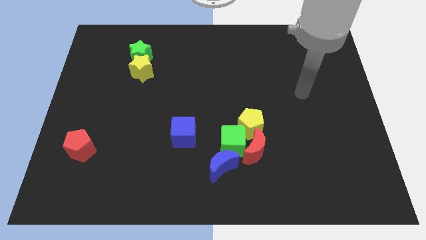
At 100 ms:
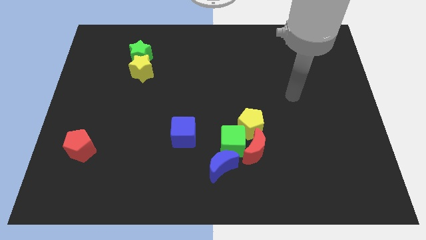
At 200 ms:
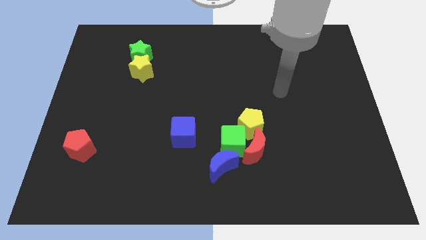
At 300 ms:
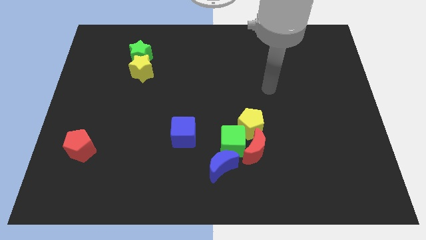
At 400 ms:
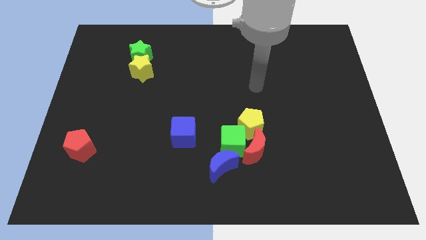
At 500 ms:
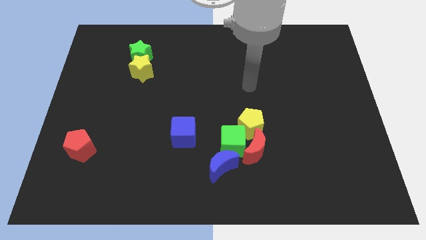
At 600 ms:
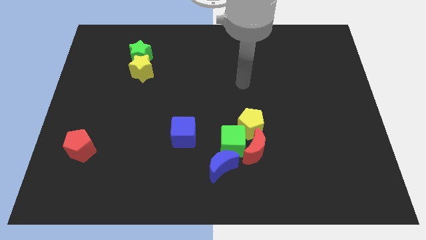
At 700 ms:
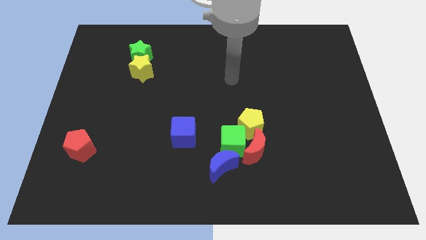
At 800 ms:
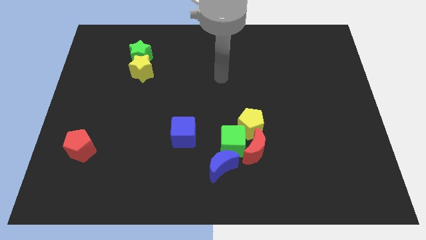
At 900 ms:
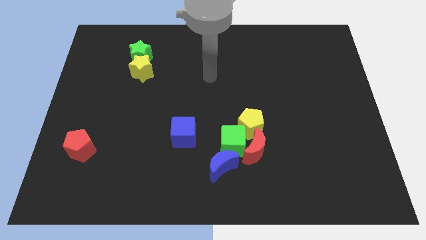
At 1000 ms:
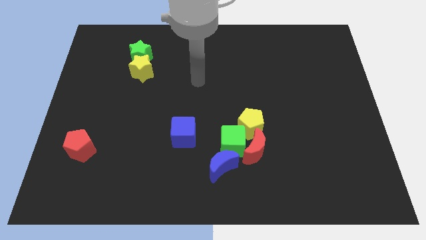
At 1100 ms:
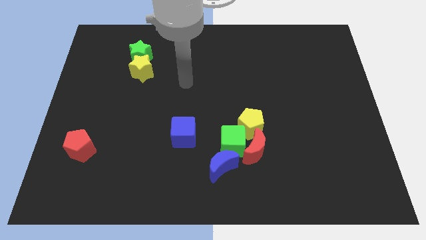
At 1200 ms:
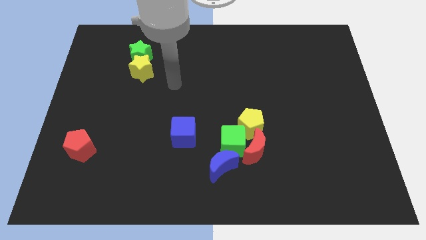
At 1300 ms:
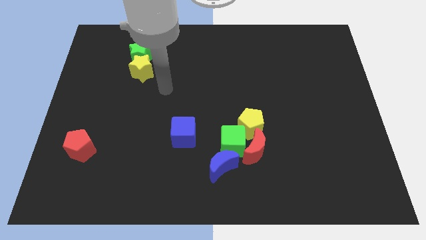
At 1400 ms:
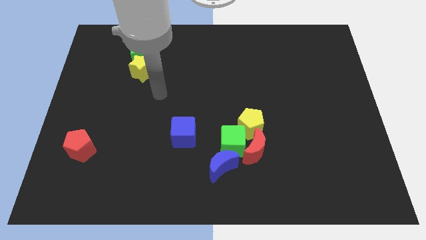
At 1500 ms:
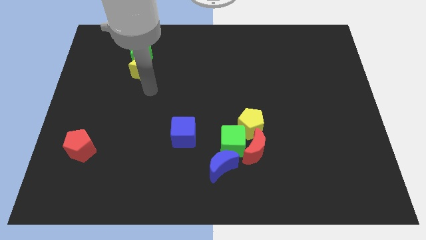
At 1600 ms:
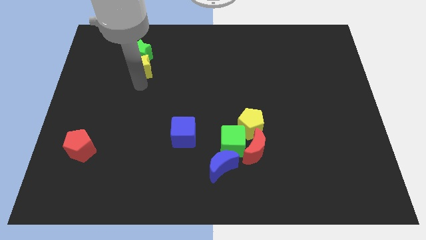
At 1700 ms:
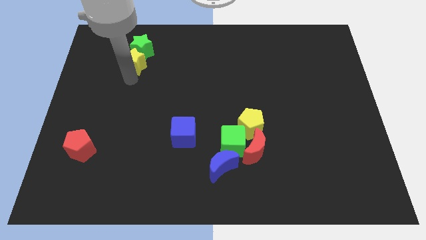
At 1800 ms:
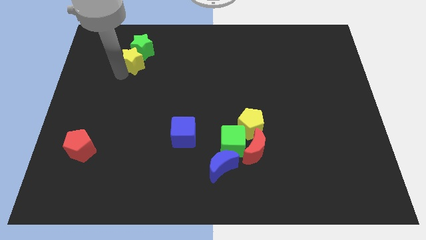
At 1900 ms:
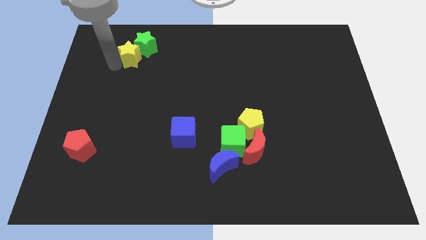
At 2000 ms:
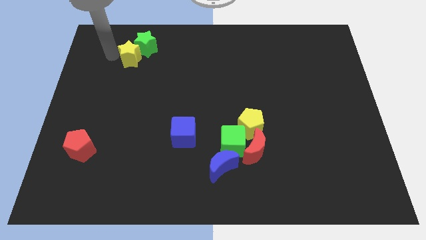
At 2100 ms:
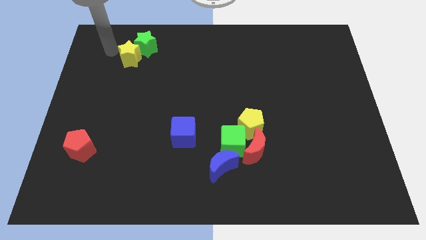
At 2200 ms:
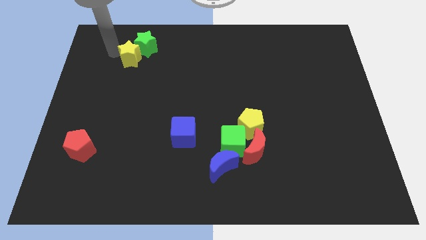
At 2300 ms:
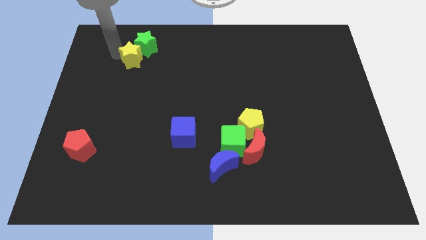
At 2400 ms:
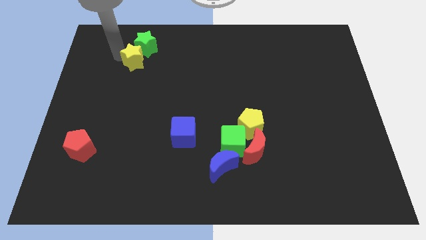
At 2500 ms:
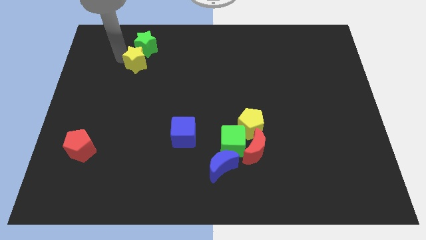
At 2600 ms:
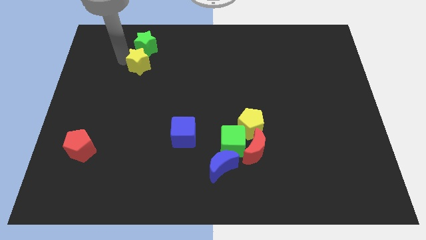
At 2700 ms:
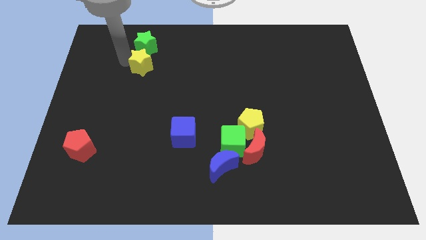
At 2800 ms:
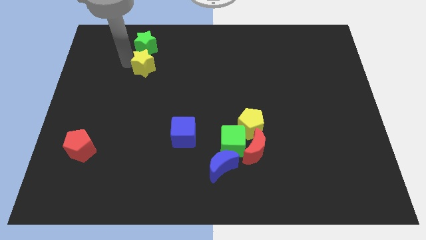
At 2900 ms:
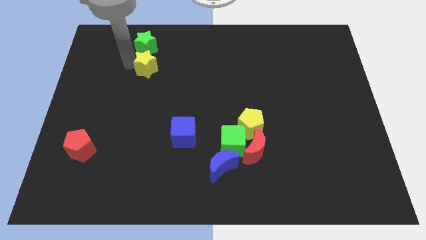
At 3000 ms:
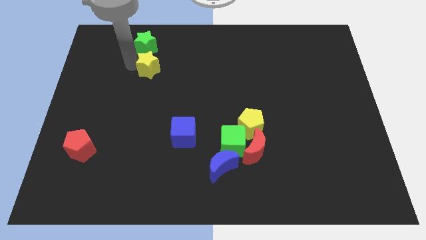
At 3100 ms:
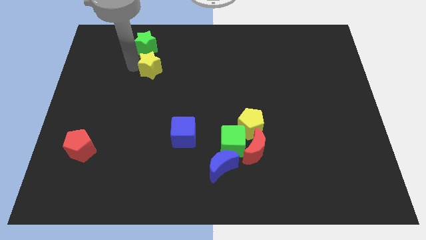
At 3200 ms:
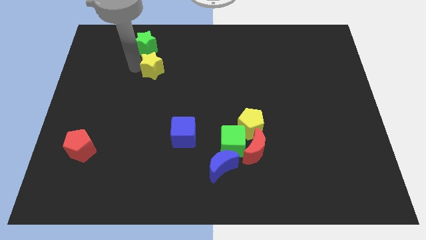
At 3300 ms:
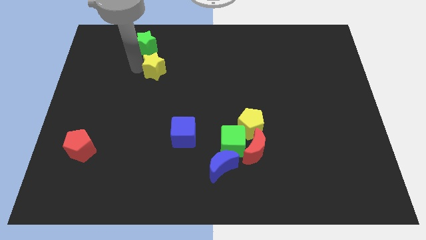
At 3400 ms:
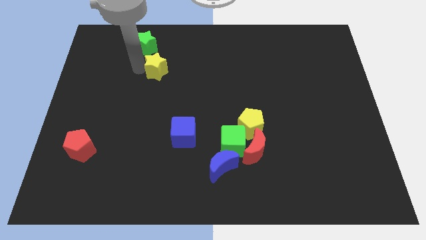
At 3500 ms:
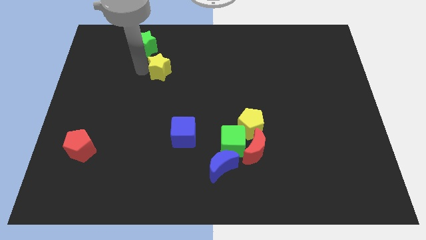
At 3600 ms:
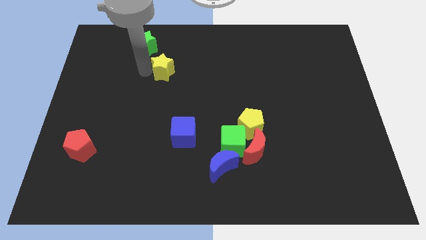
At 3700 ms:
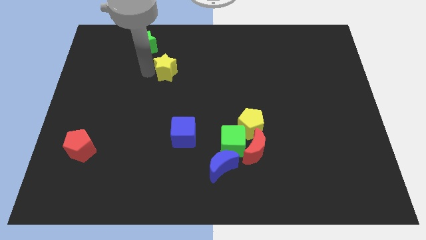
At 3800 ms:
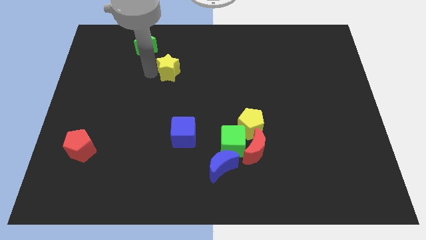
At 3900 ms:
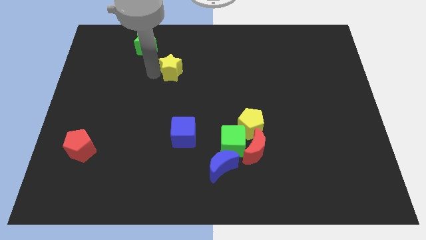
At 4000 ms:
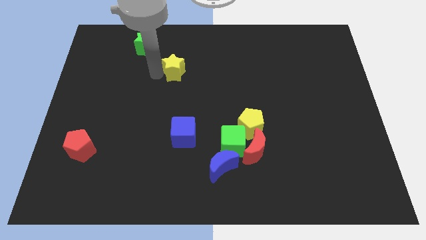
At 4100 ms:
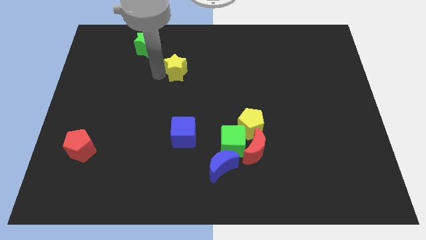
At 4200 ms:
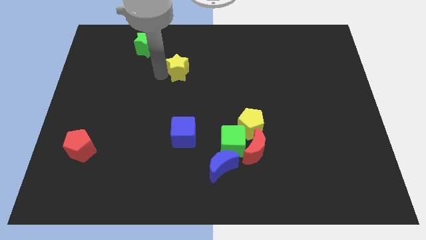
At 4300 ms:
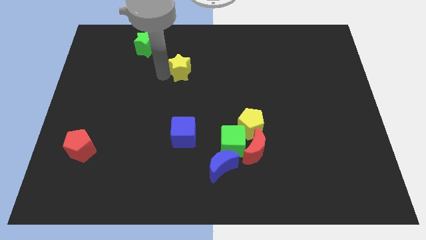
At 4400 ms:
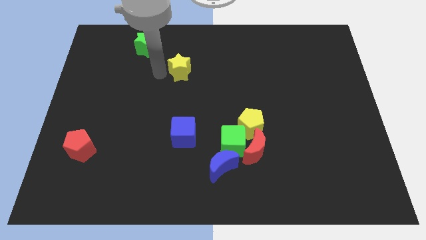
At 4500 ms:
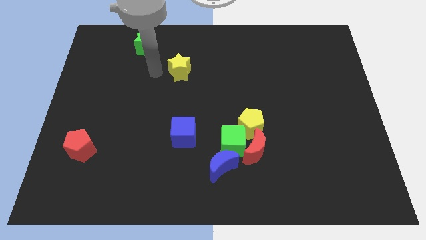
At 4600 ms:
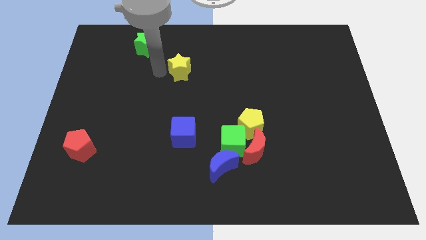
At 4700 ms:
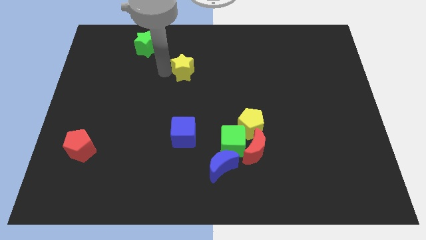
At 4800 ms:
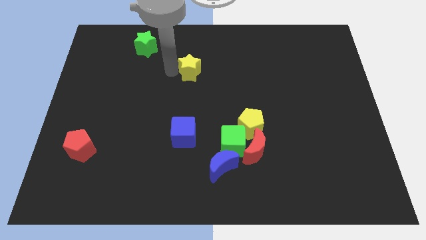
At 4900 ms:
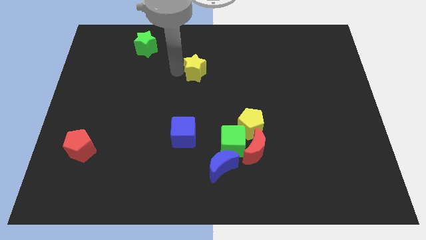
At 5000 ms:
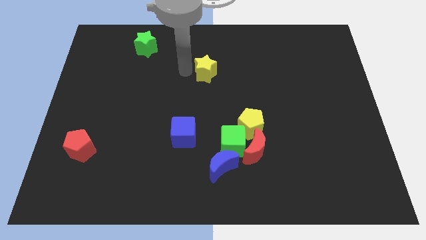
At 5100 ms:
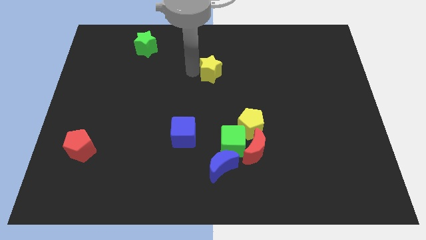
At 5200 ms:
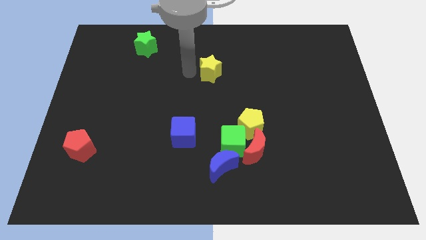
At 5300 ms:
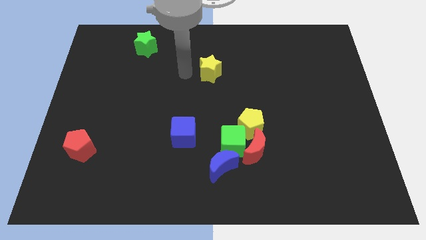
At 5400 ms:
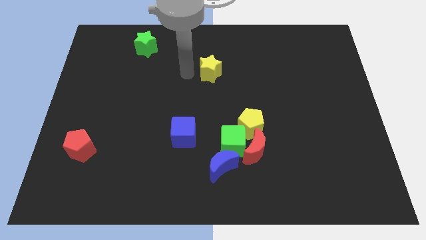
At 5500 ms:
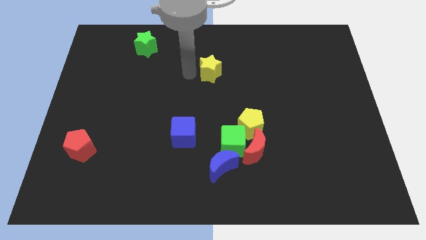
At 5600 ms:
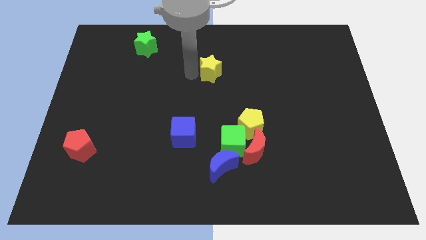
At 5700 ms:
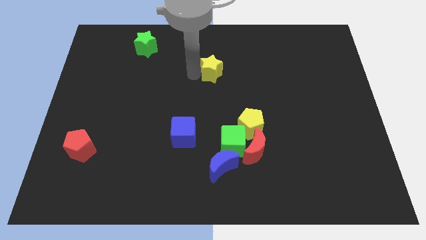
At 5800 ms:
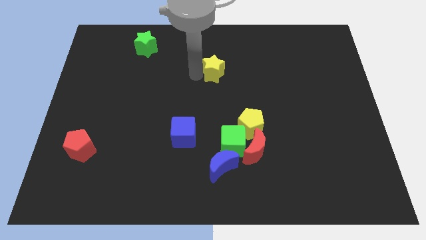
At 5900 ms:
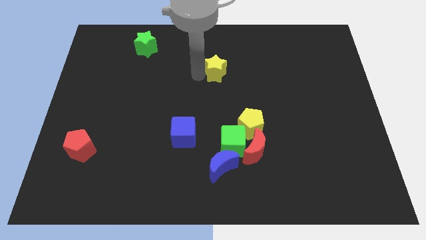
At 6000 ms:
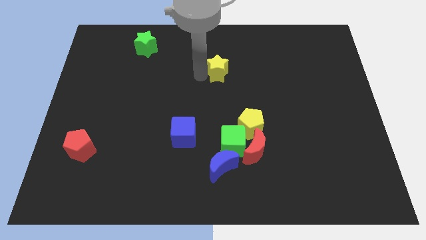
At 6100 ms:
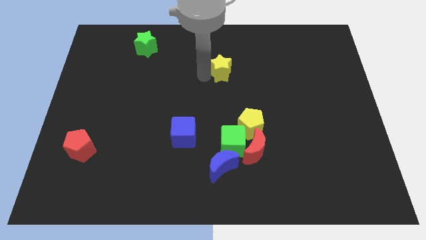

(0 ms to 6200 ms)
slide the yellow star to the right

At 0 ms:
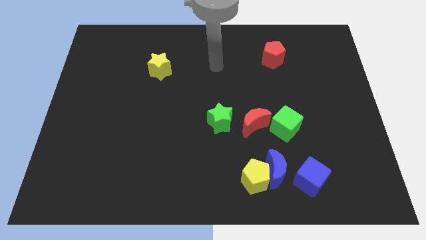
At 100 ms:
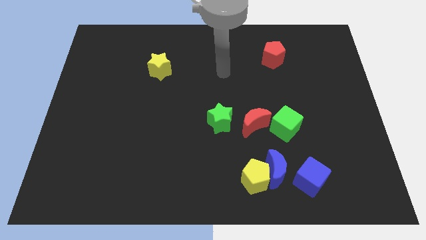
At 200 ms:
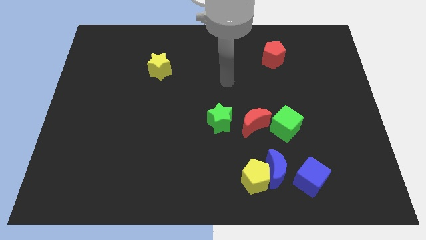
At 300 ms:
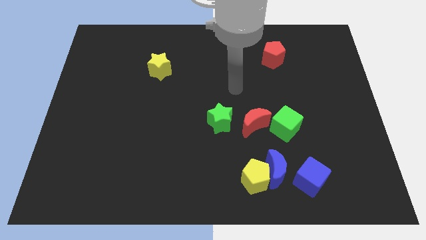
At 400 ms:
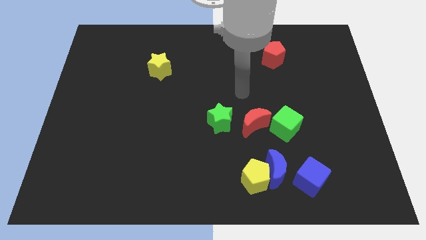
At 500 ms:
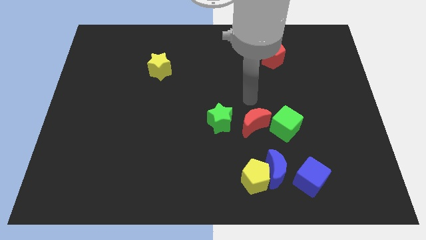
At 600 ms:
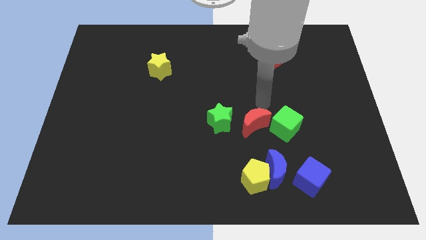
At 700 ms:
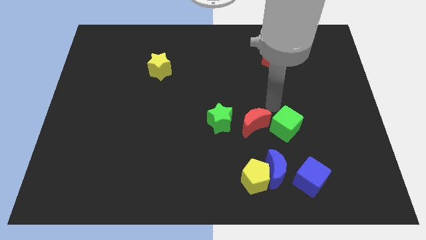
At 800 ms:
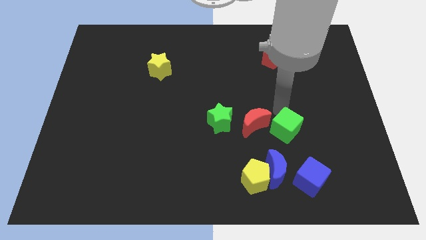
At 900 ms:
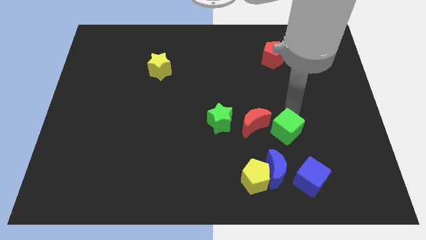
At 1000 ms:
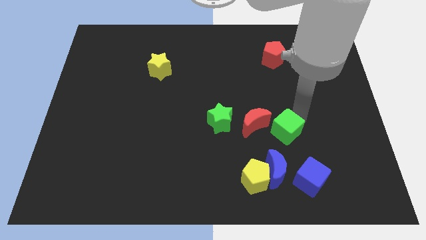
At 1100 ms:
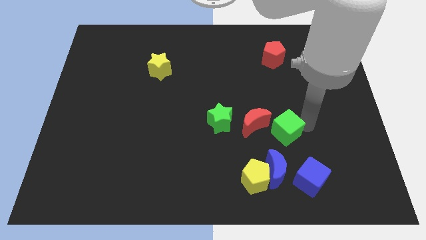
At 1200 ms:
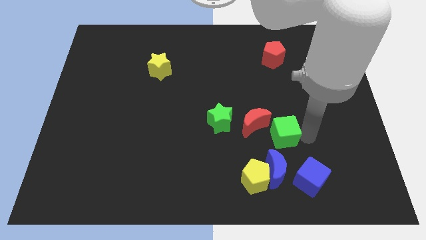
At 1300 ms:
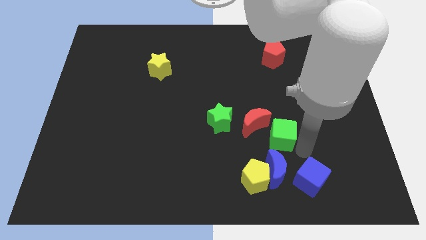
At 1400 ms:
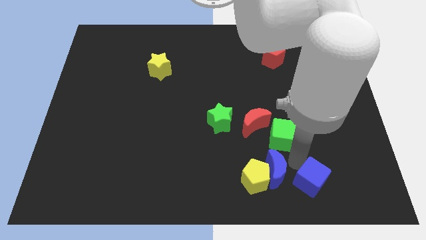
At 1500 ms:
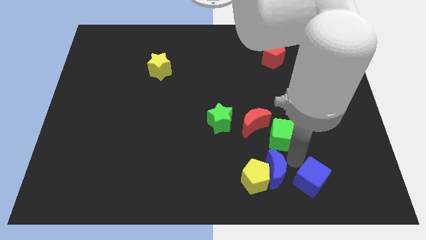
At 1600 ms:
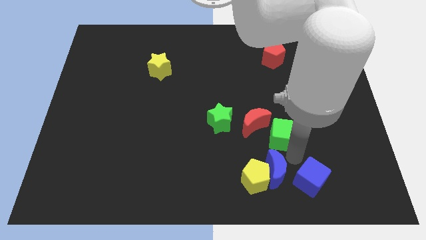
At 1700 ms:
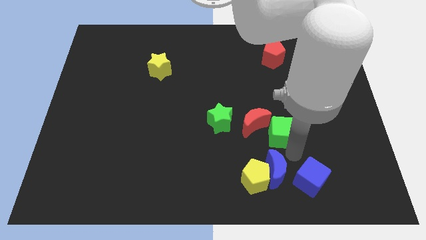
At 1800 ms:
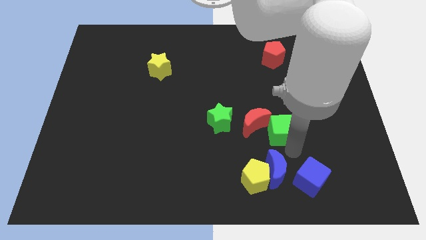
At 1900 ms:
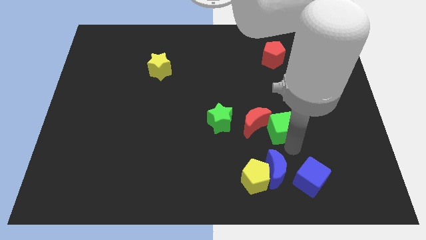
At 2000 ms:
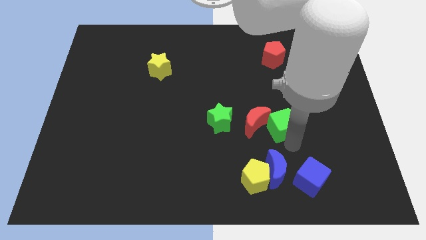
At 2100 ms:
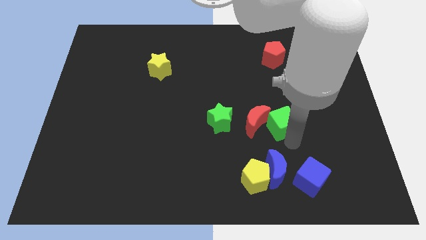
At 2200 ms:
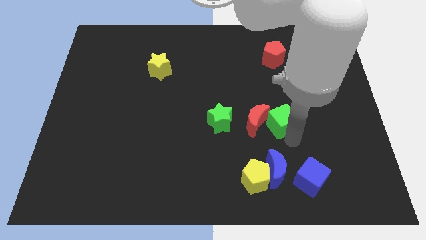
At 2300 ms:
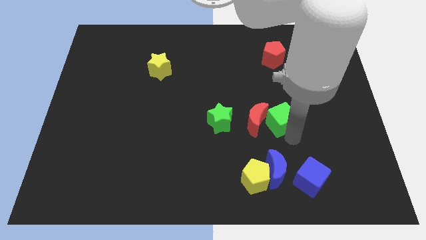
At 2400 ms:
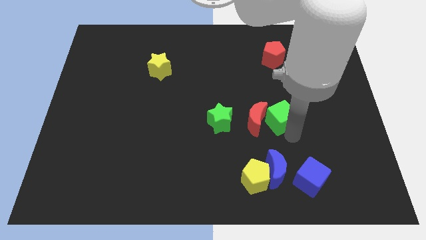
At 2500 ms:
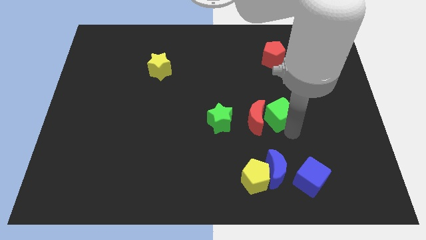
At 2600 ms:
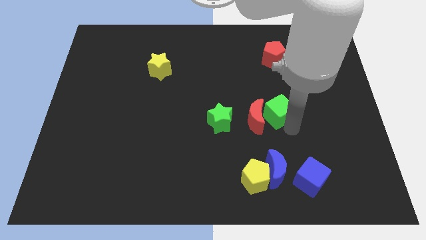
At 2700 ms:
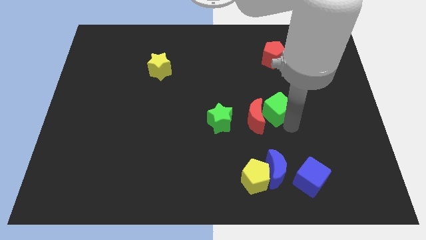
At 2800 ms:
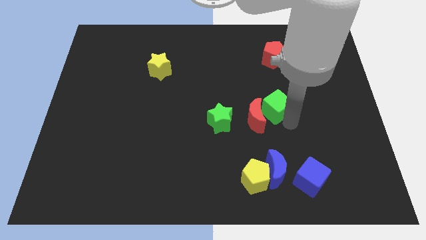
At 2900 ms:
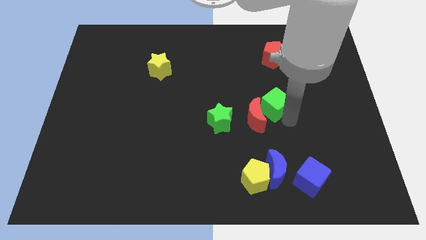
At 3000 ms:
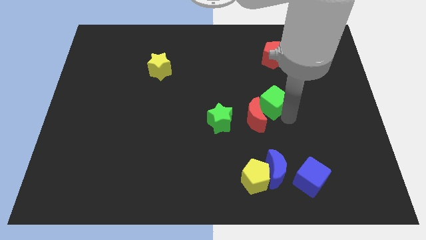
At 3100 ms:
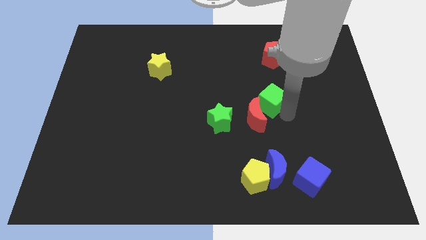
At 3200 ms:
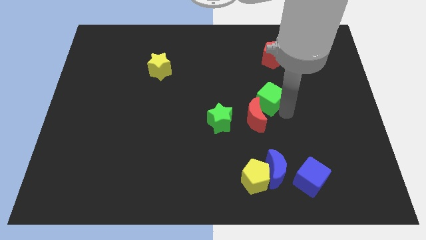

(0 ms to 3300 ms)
slightly slide the green cube up and then left
